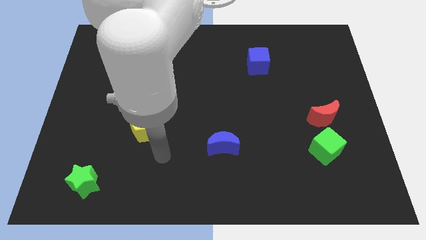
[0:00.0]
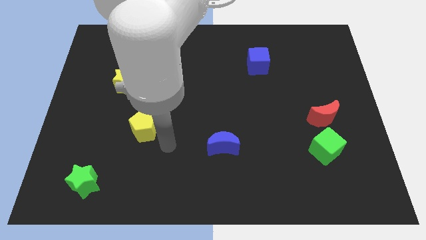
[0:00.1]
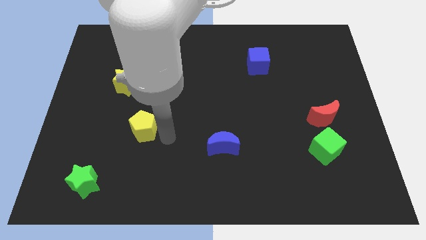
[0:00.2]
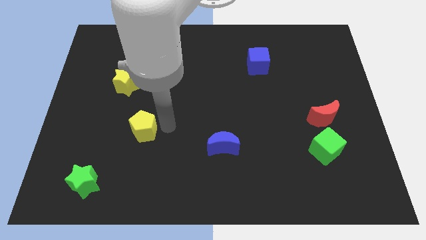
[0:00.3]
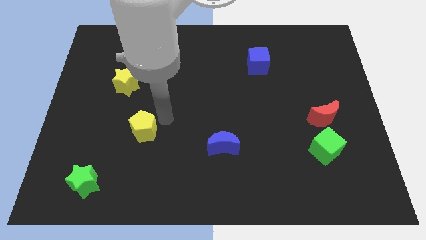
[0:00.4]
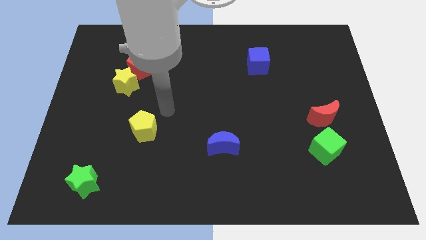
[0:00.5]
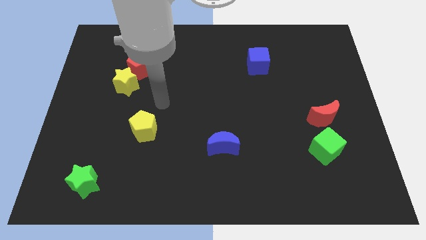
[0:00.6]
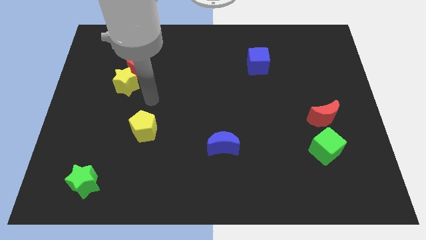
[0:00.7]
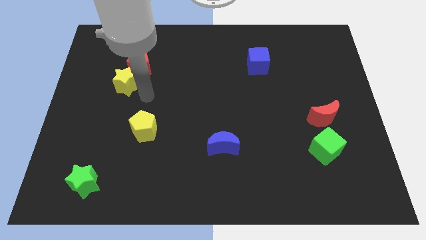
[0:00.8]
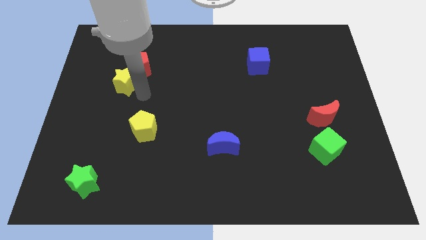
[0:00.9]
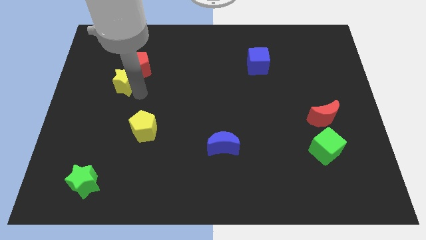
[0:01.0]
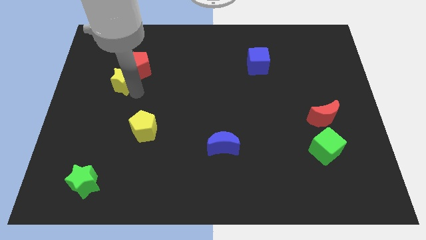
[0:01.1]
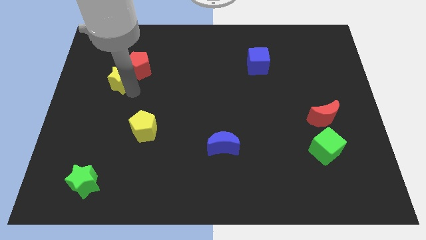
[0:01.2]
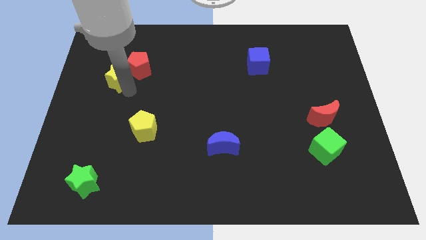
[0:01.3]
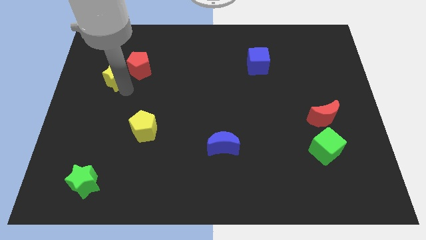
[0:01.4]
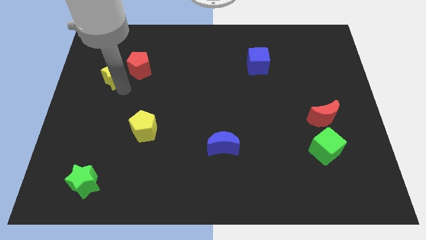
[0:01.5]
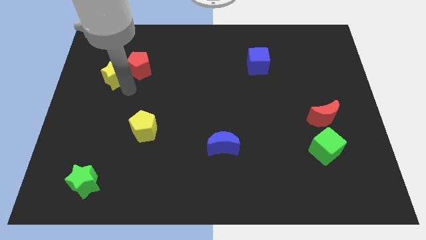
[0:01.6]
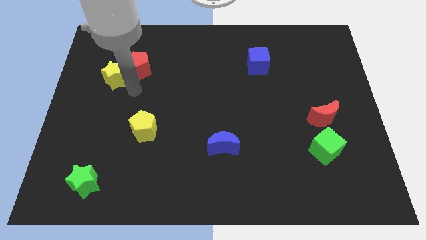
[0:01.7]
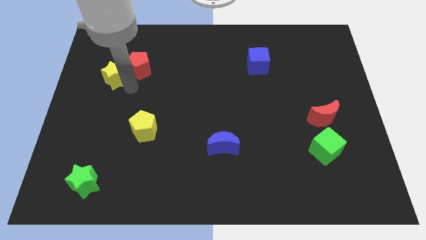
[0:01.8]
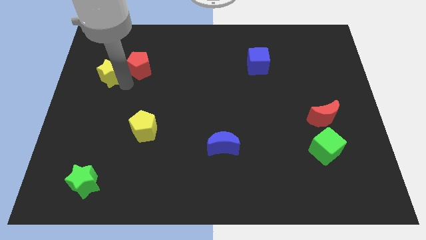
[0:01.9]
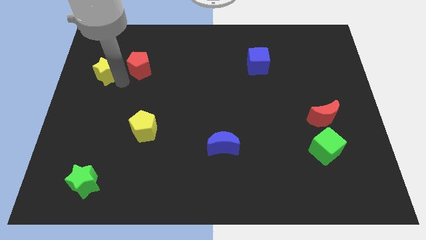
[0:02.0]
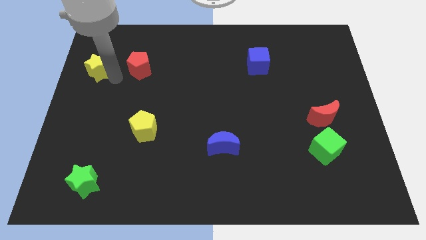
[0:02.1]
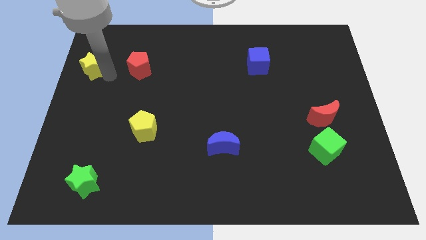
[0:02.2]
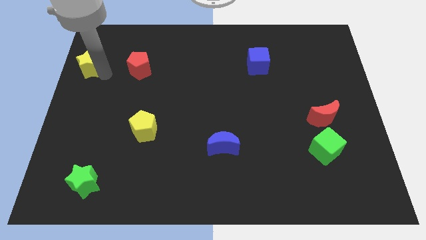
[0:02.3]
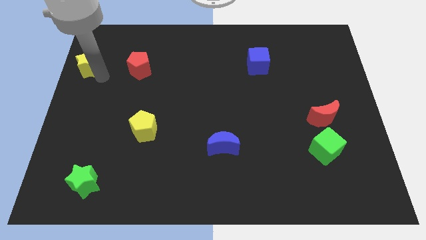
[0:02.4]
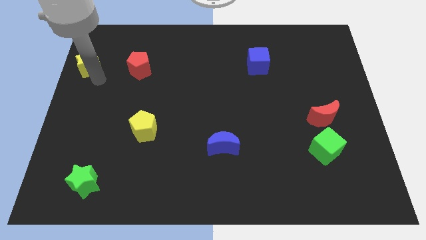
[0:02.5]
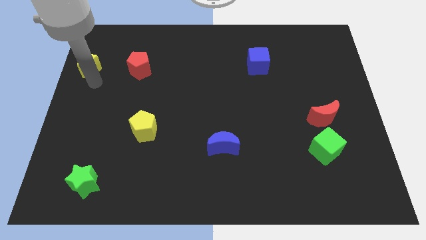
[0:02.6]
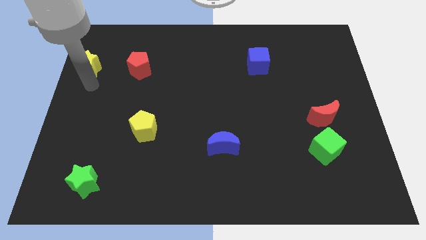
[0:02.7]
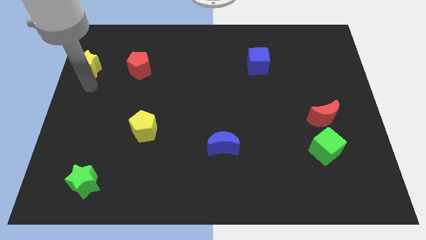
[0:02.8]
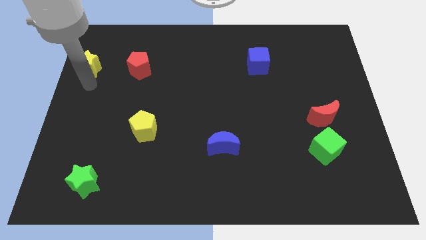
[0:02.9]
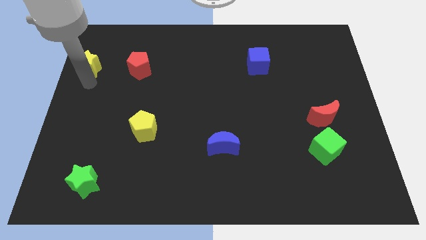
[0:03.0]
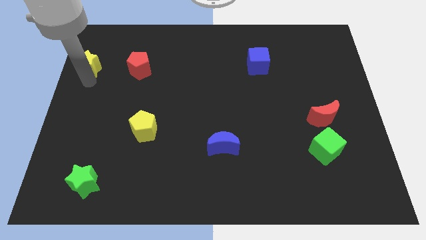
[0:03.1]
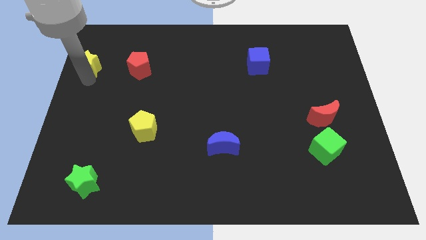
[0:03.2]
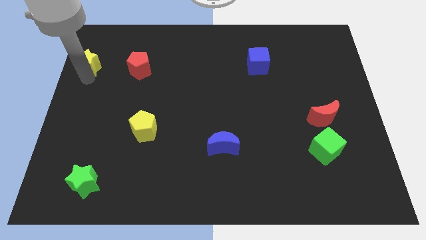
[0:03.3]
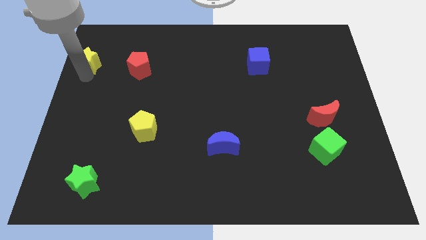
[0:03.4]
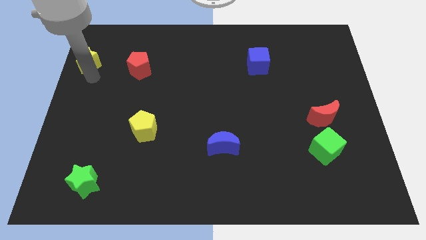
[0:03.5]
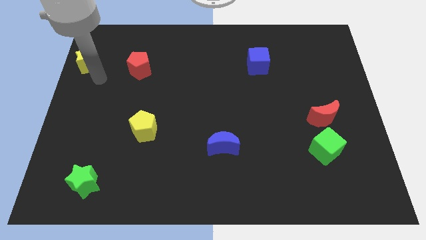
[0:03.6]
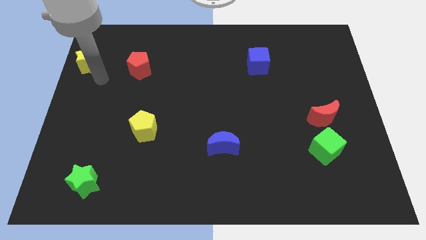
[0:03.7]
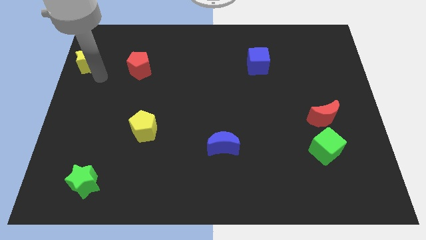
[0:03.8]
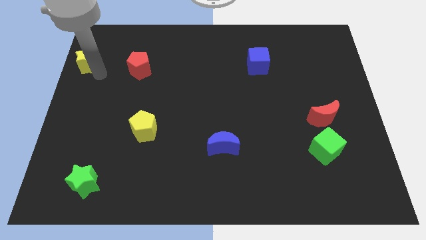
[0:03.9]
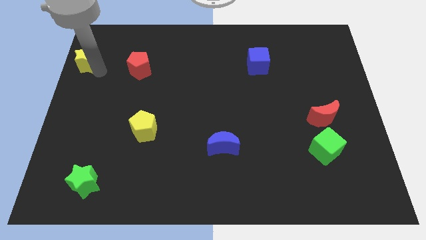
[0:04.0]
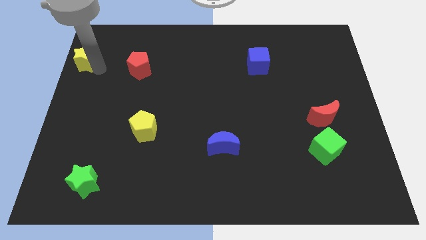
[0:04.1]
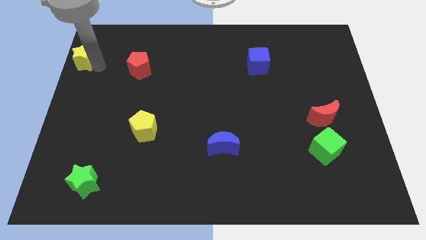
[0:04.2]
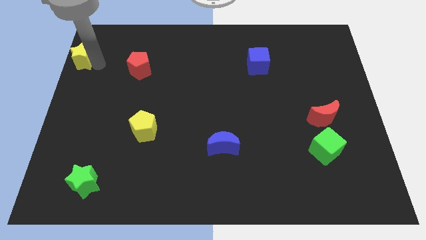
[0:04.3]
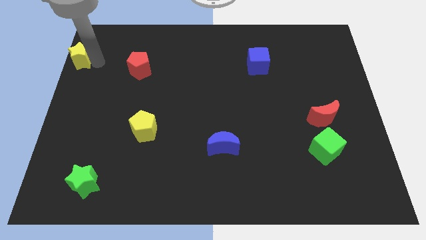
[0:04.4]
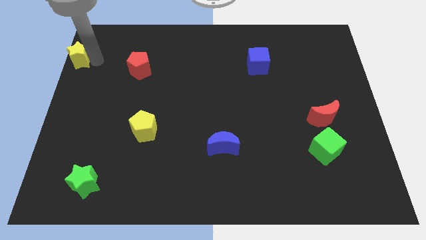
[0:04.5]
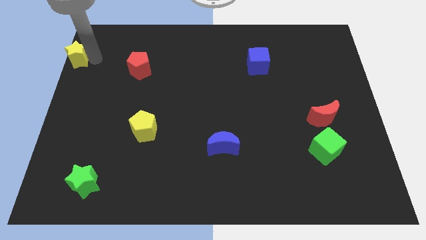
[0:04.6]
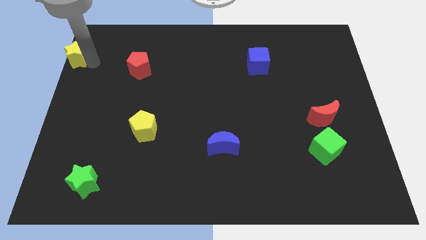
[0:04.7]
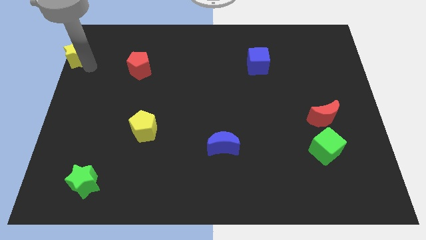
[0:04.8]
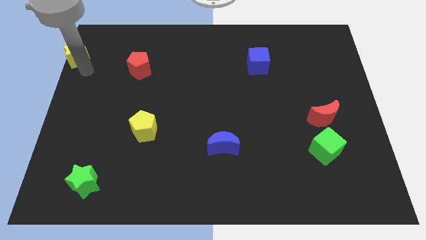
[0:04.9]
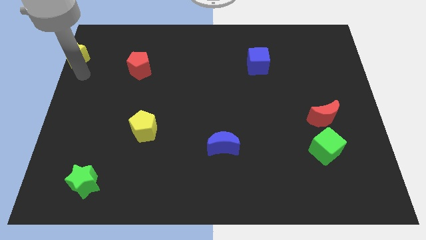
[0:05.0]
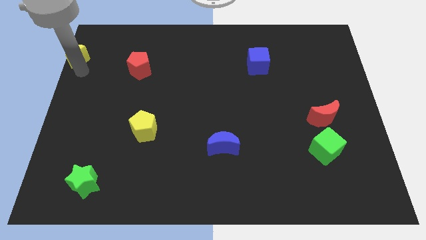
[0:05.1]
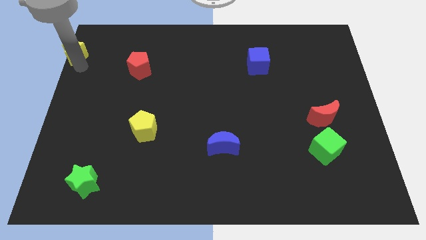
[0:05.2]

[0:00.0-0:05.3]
push the yellow star to the top left corner
